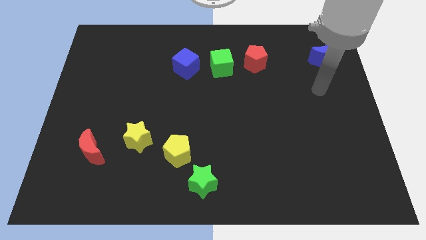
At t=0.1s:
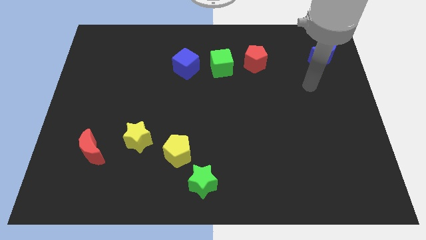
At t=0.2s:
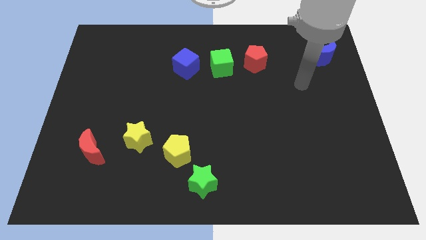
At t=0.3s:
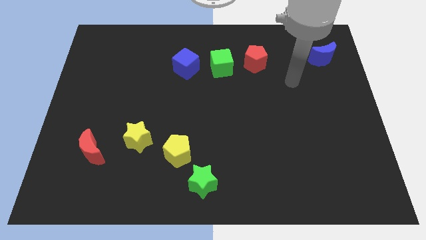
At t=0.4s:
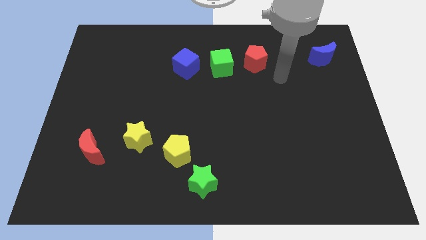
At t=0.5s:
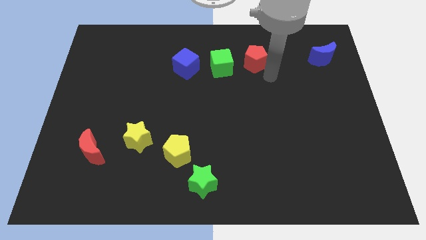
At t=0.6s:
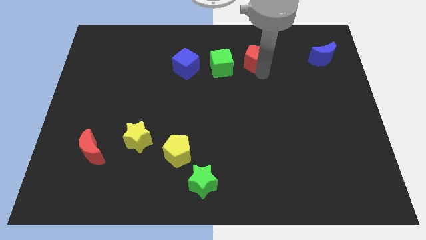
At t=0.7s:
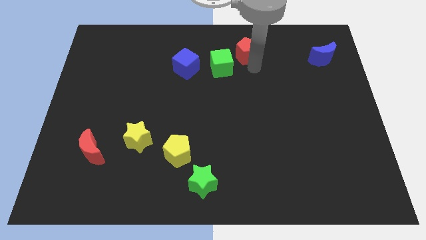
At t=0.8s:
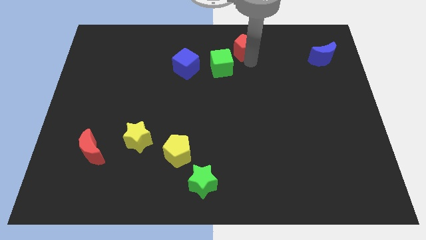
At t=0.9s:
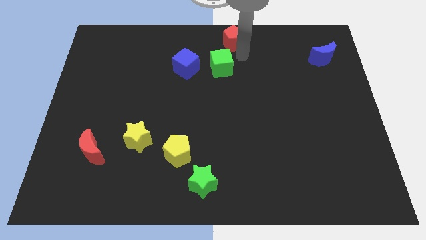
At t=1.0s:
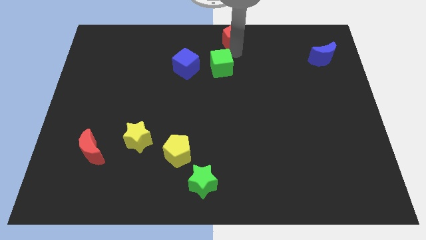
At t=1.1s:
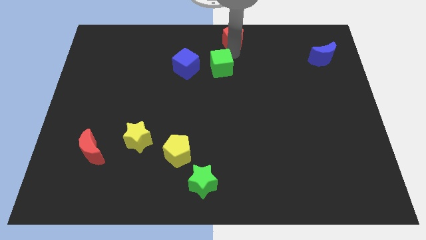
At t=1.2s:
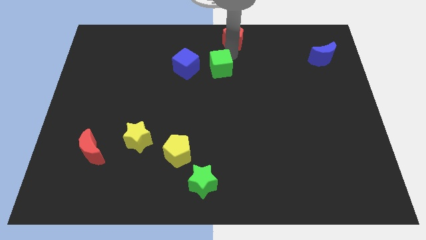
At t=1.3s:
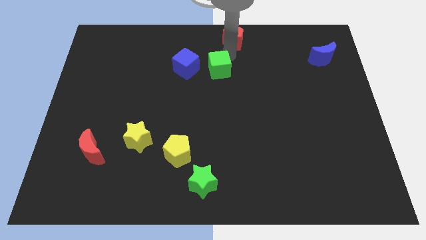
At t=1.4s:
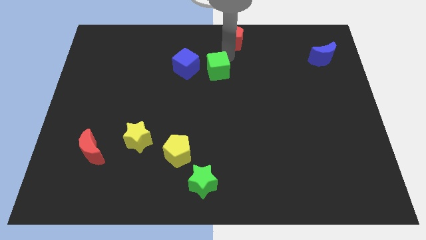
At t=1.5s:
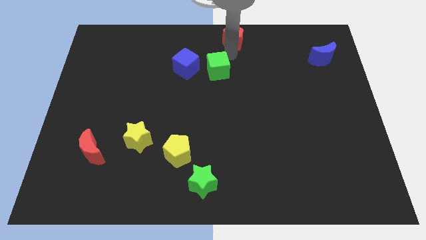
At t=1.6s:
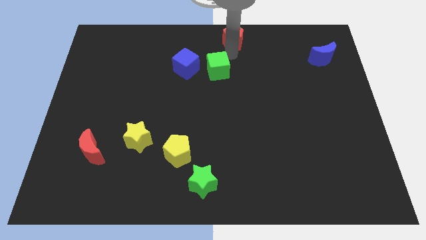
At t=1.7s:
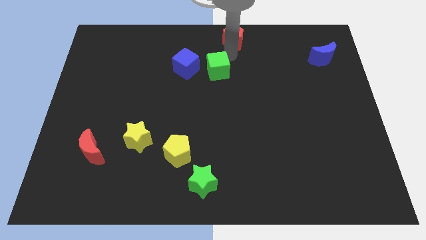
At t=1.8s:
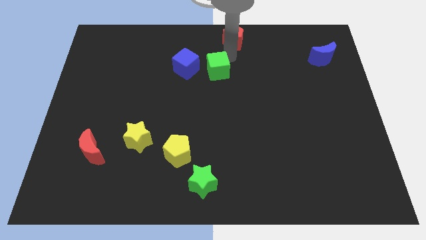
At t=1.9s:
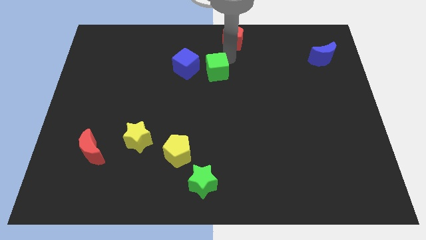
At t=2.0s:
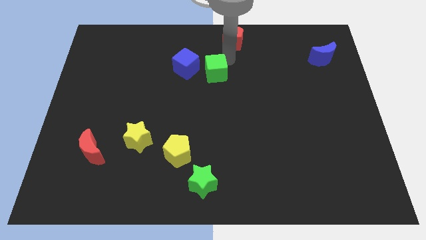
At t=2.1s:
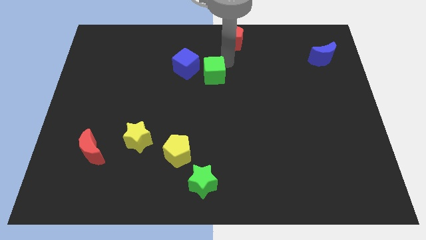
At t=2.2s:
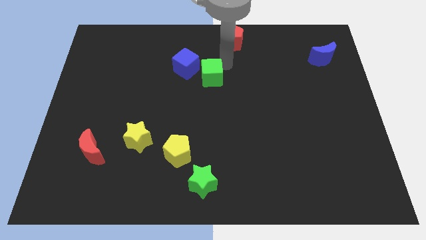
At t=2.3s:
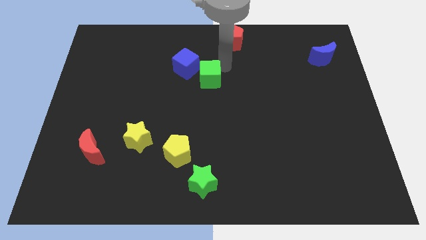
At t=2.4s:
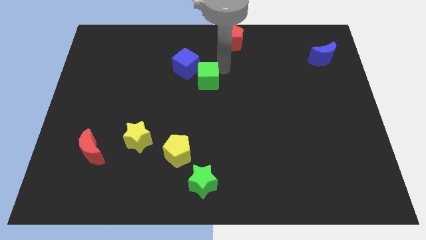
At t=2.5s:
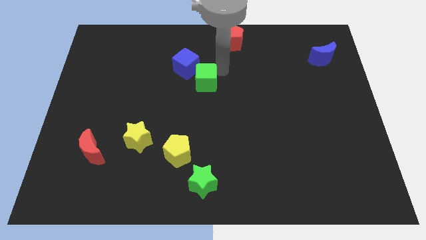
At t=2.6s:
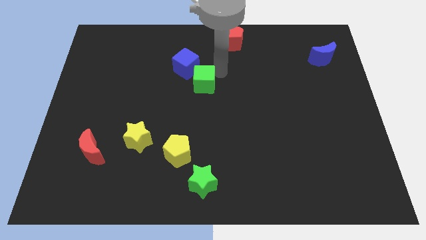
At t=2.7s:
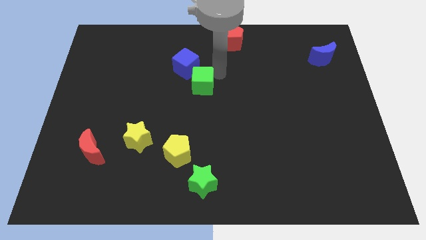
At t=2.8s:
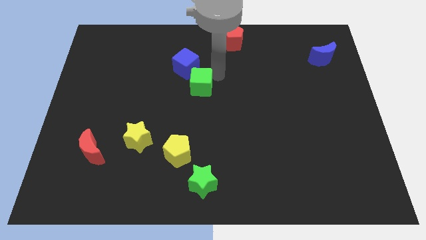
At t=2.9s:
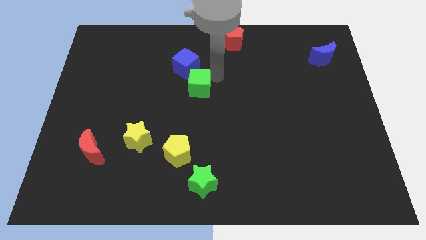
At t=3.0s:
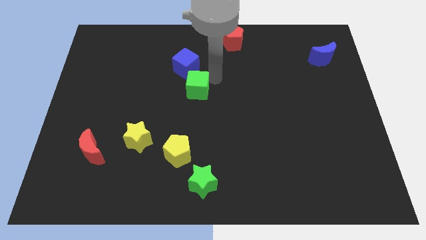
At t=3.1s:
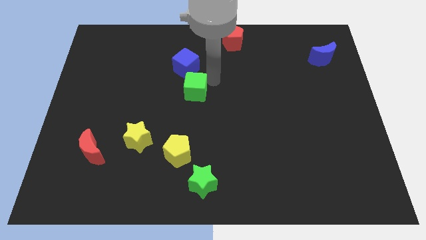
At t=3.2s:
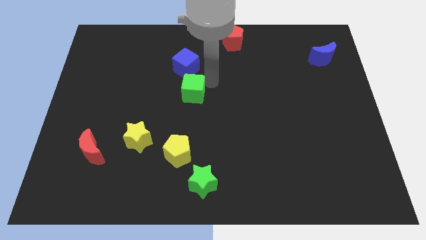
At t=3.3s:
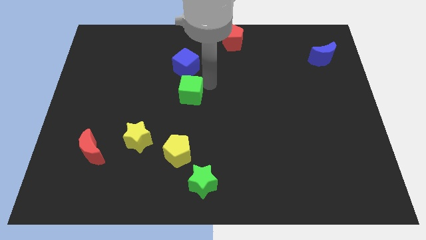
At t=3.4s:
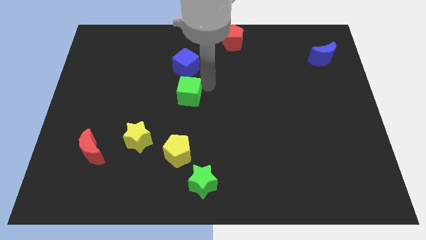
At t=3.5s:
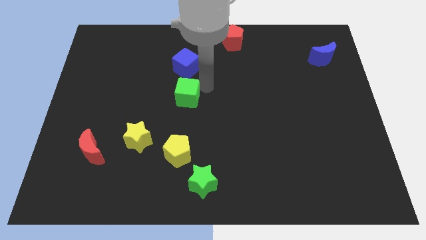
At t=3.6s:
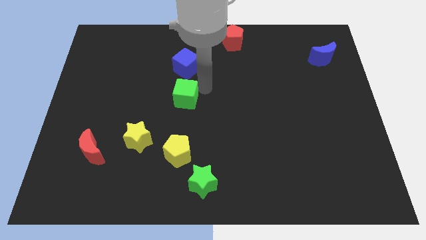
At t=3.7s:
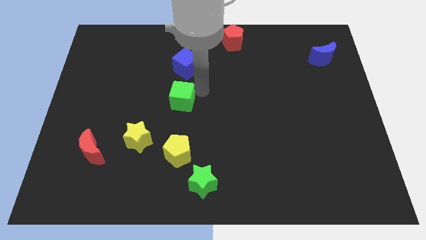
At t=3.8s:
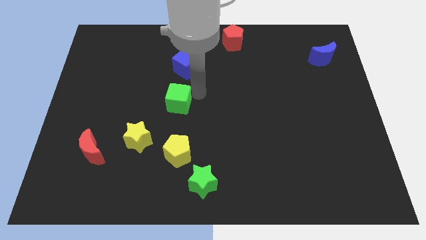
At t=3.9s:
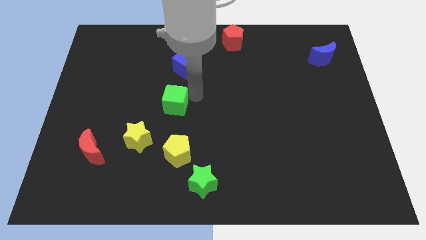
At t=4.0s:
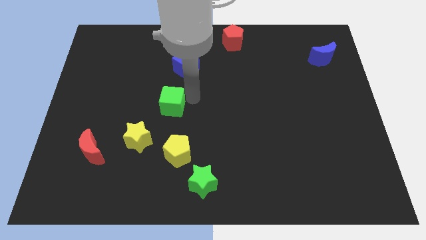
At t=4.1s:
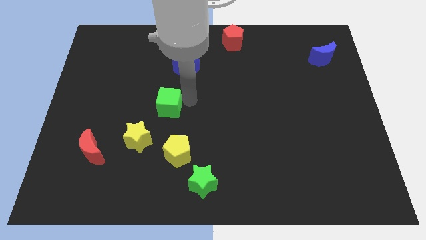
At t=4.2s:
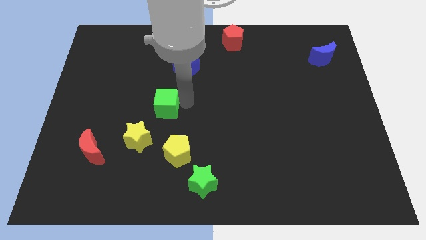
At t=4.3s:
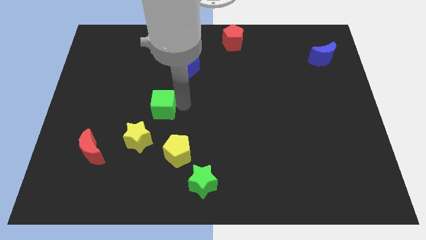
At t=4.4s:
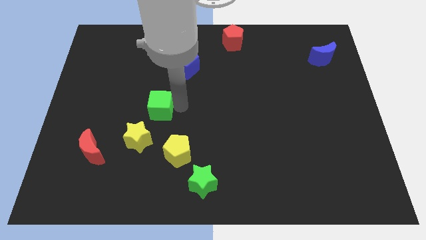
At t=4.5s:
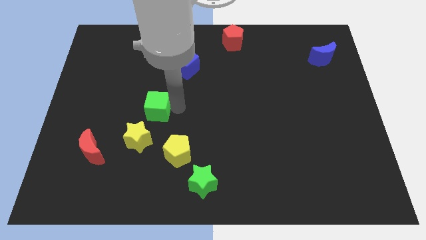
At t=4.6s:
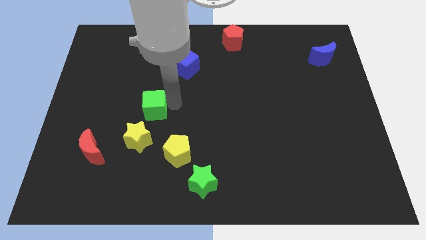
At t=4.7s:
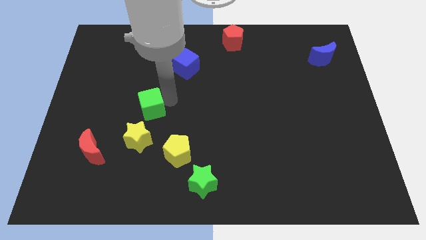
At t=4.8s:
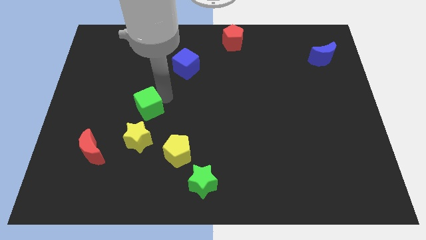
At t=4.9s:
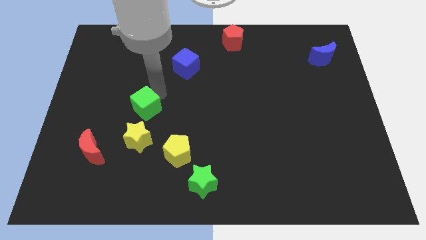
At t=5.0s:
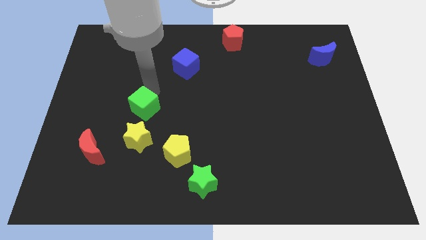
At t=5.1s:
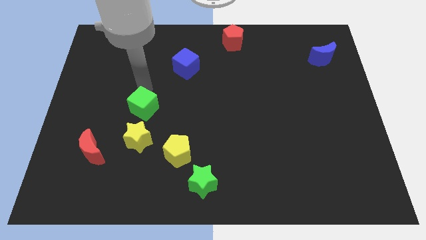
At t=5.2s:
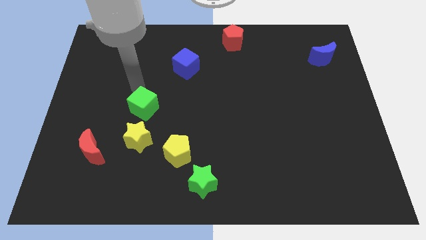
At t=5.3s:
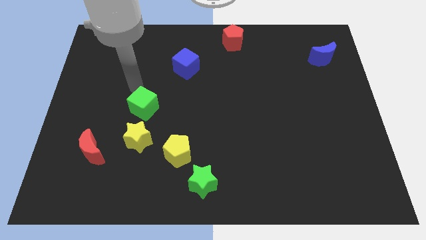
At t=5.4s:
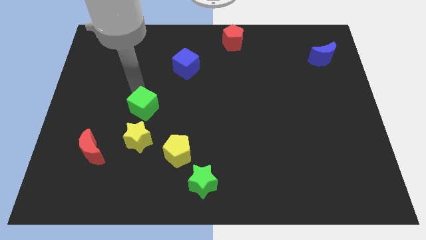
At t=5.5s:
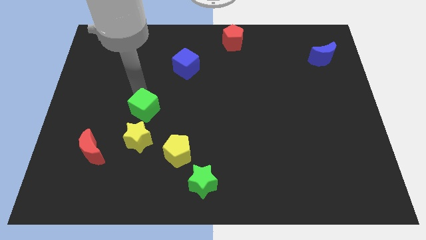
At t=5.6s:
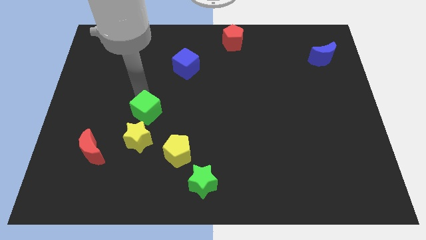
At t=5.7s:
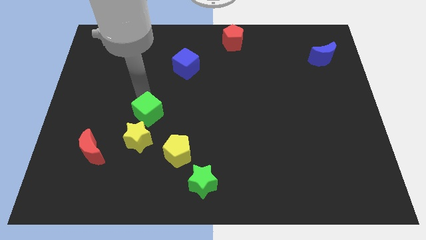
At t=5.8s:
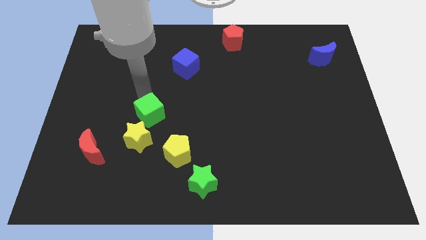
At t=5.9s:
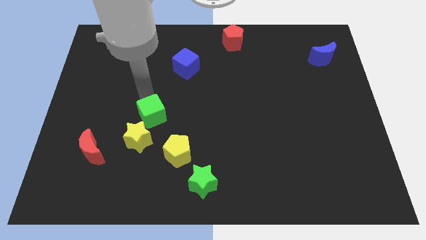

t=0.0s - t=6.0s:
push the green cube to the top left side of the yellow pentagon

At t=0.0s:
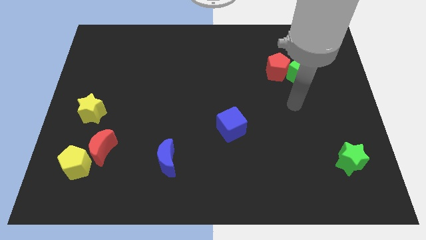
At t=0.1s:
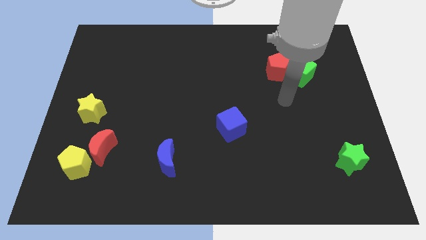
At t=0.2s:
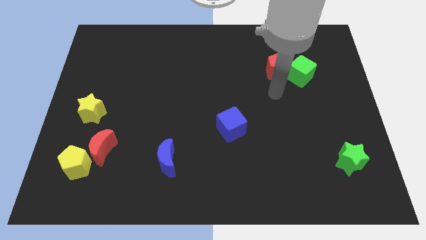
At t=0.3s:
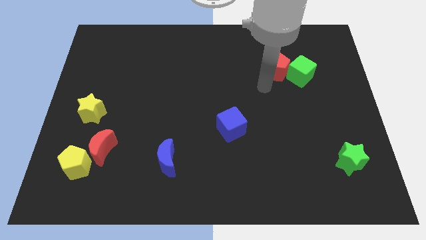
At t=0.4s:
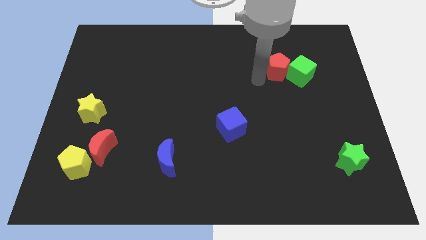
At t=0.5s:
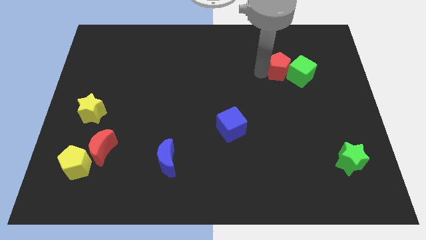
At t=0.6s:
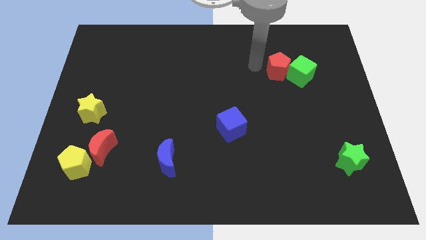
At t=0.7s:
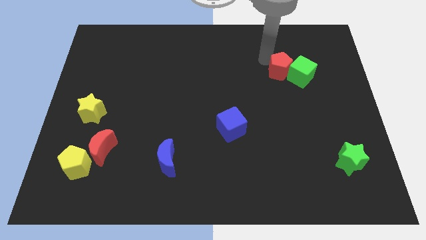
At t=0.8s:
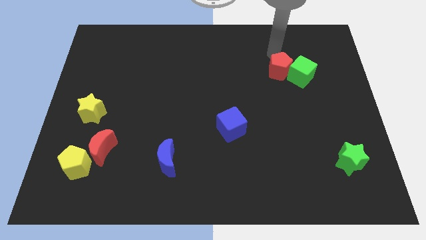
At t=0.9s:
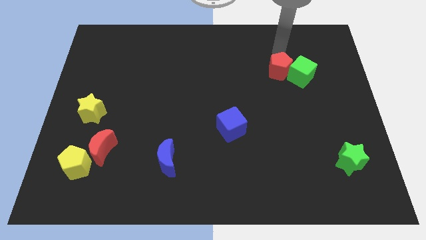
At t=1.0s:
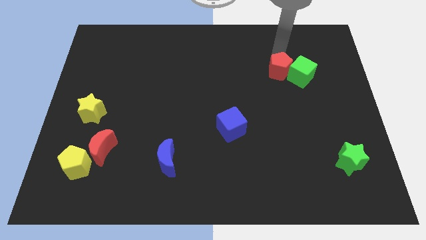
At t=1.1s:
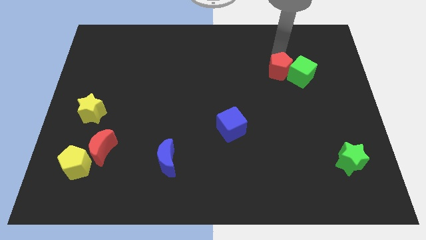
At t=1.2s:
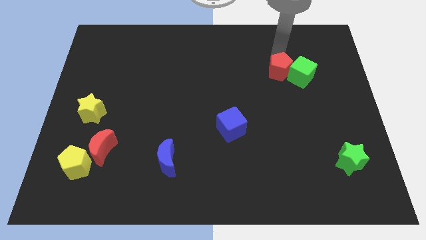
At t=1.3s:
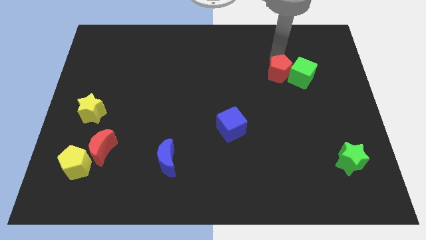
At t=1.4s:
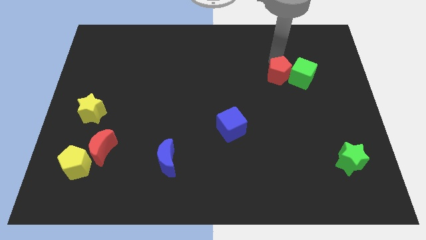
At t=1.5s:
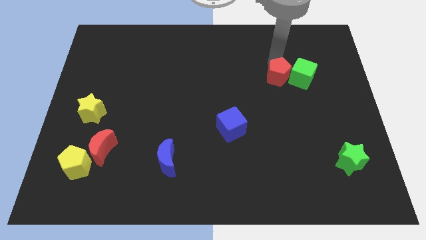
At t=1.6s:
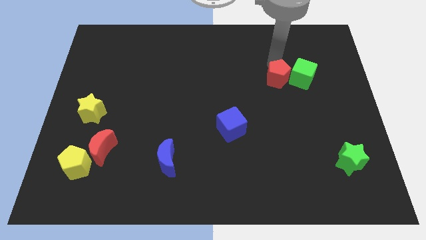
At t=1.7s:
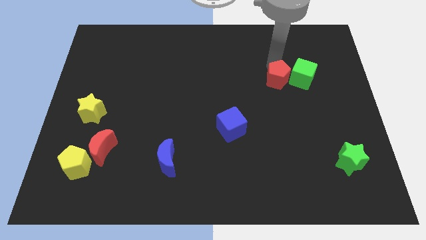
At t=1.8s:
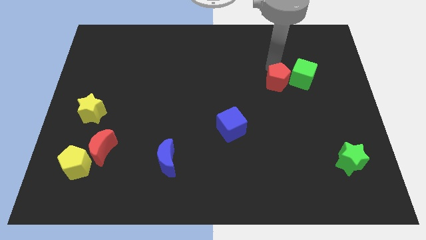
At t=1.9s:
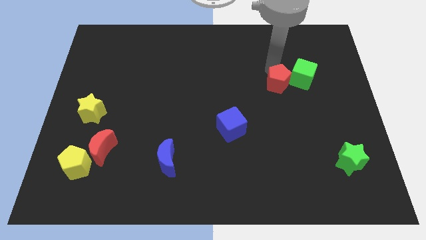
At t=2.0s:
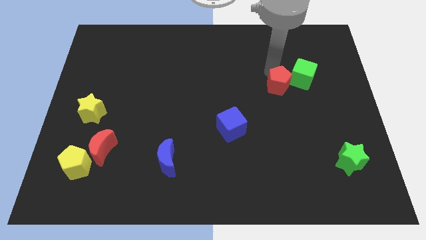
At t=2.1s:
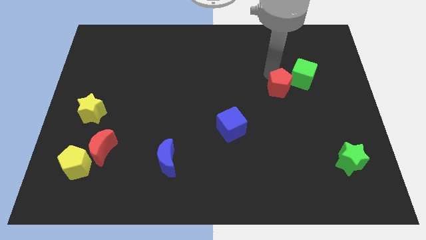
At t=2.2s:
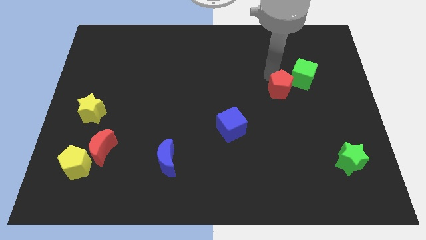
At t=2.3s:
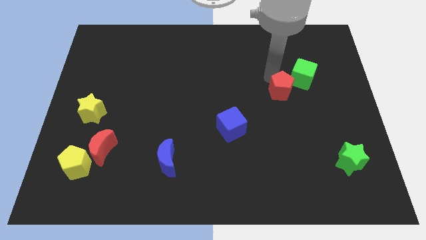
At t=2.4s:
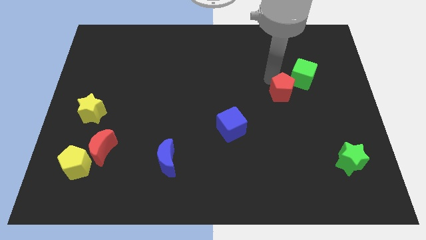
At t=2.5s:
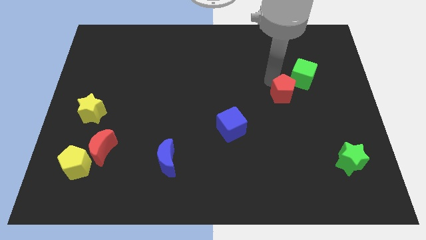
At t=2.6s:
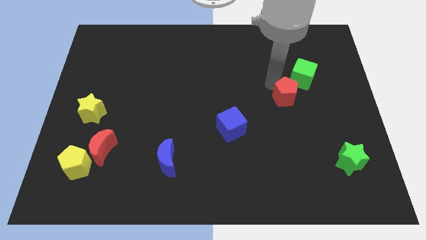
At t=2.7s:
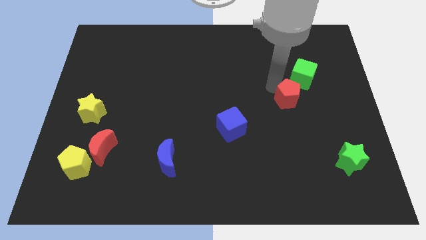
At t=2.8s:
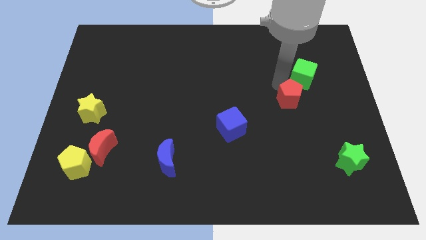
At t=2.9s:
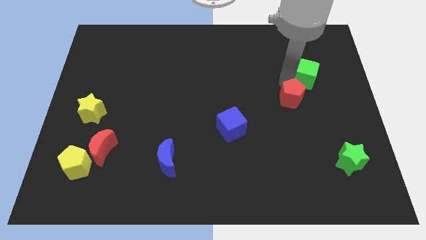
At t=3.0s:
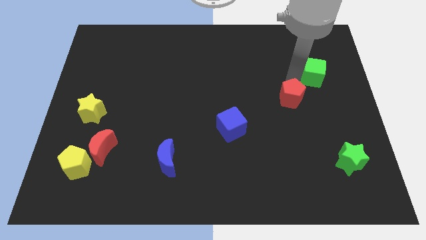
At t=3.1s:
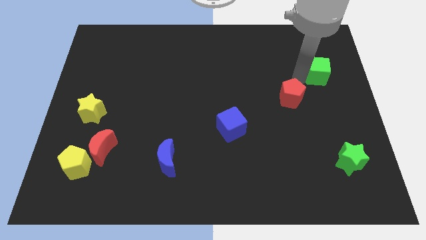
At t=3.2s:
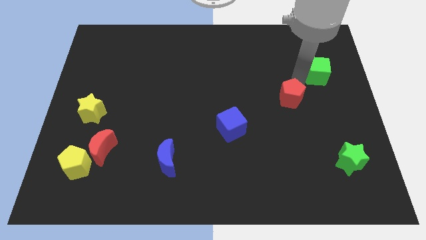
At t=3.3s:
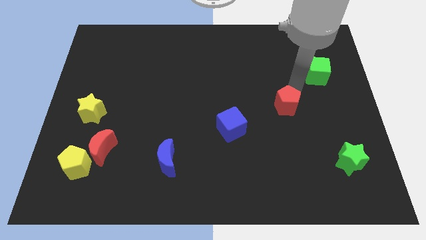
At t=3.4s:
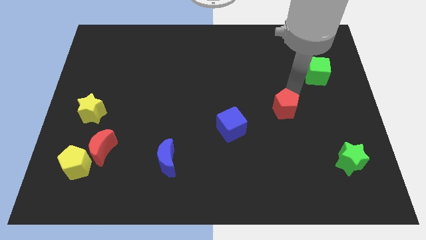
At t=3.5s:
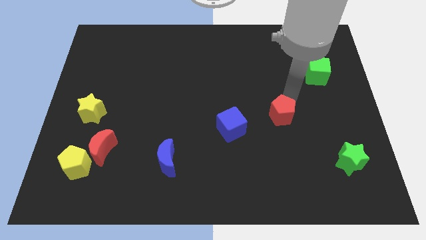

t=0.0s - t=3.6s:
slide the red pentagon to the right side of the blue cube
